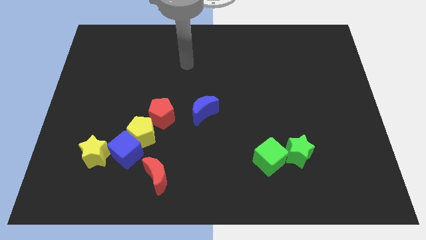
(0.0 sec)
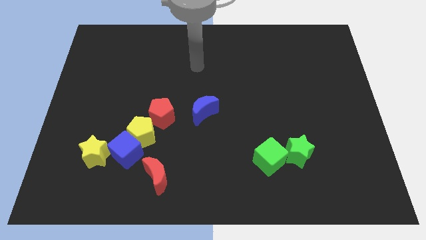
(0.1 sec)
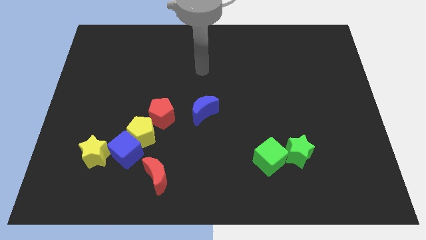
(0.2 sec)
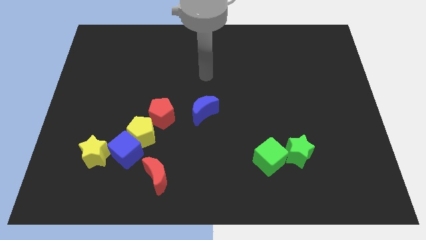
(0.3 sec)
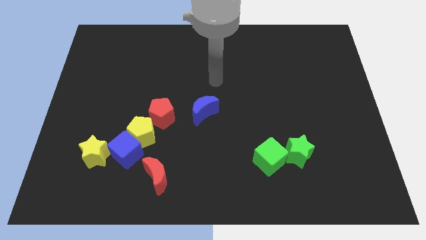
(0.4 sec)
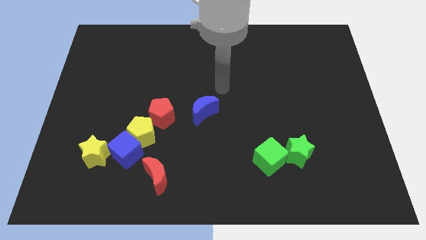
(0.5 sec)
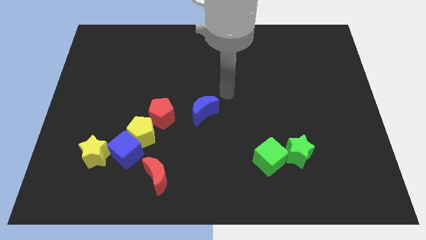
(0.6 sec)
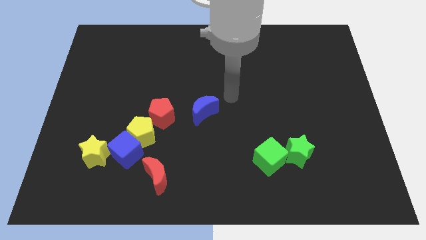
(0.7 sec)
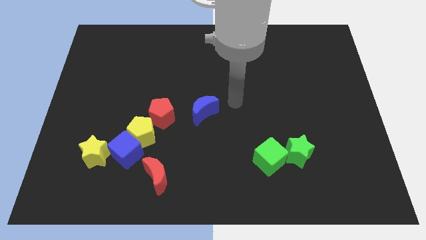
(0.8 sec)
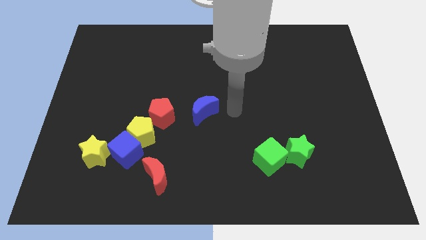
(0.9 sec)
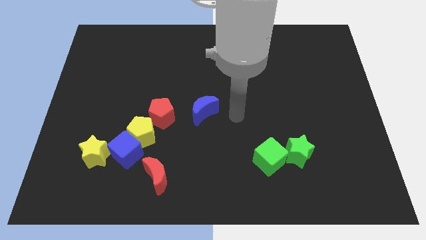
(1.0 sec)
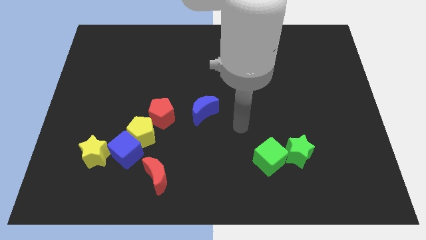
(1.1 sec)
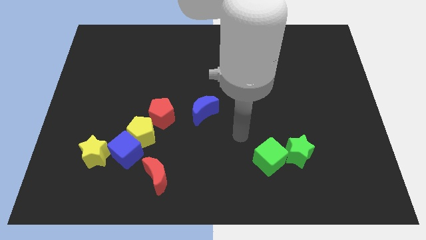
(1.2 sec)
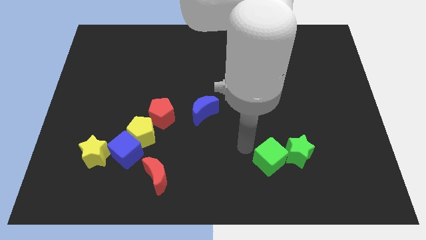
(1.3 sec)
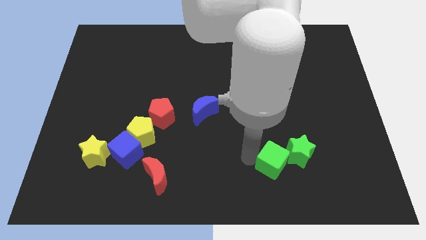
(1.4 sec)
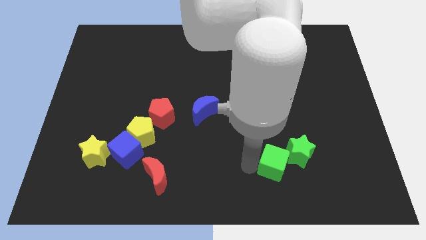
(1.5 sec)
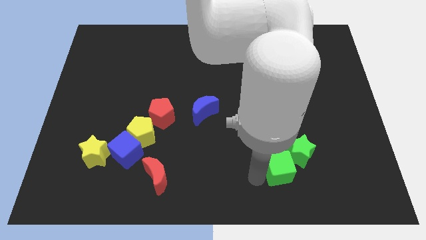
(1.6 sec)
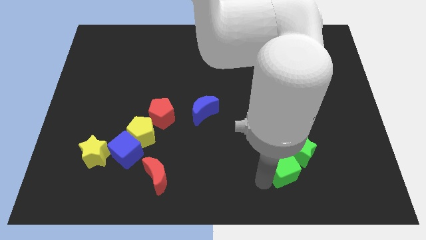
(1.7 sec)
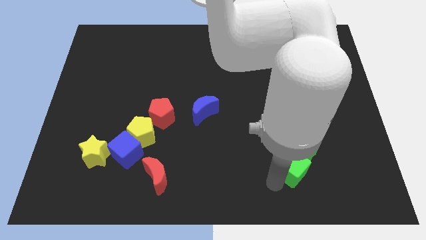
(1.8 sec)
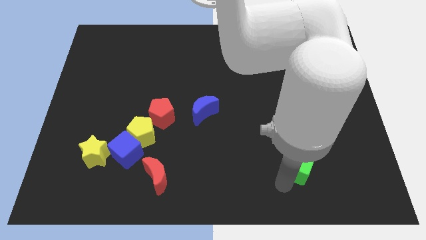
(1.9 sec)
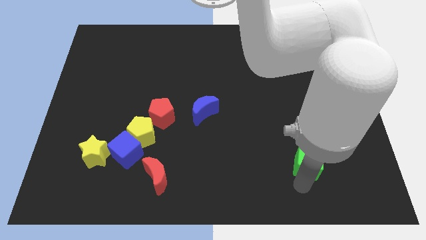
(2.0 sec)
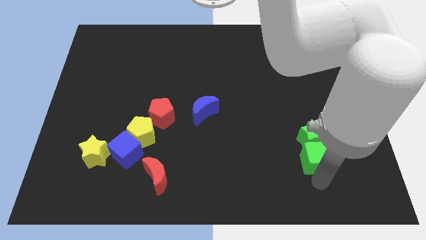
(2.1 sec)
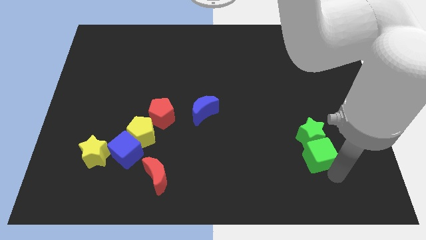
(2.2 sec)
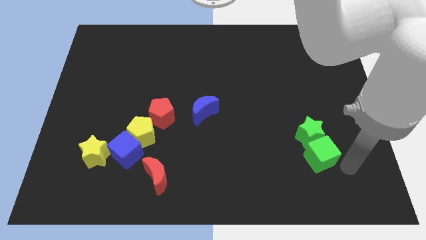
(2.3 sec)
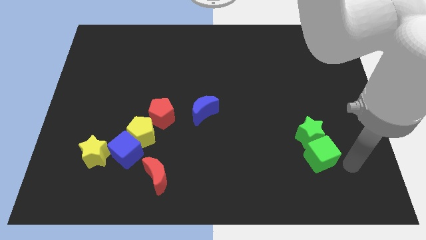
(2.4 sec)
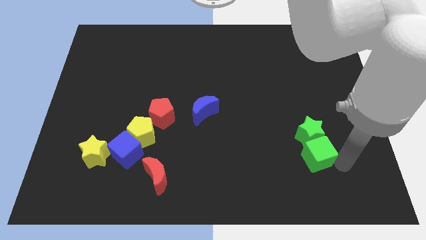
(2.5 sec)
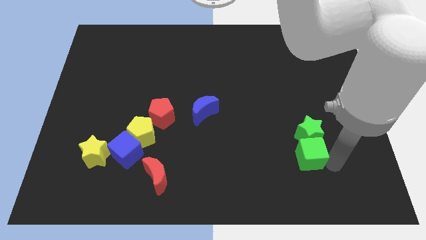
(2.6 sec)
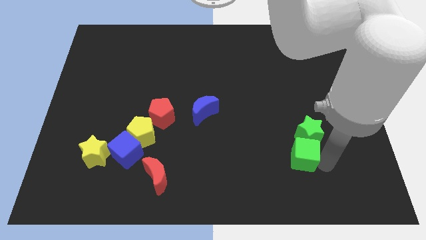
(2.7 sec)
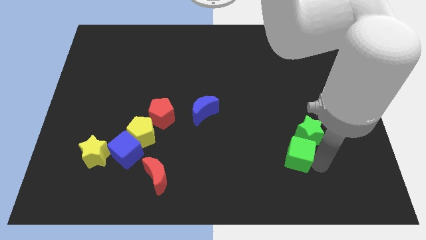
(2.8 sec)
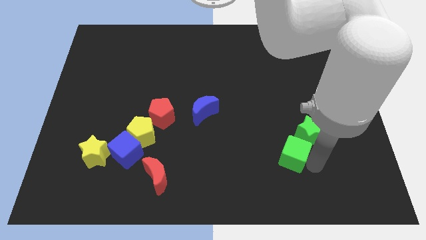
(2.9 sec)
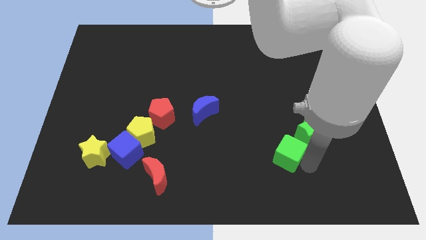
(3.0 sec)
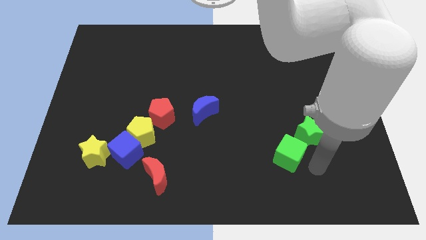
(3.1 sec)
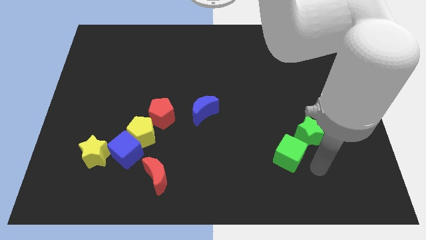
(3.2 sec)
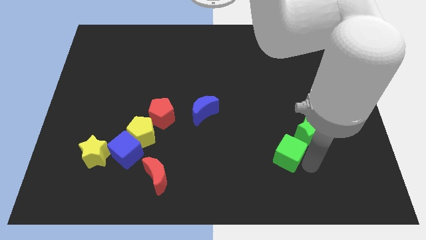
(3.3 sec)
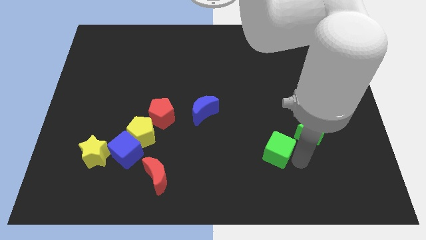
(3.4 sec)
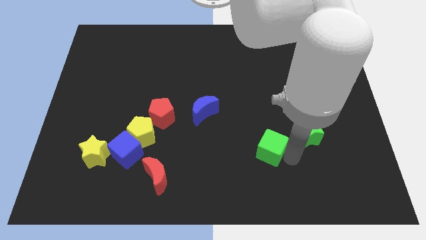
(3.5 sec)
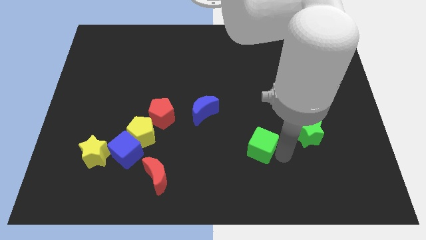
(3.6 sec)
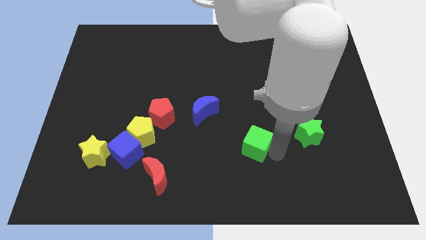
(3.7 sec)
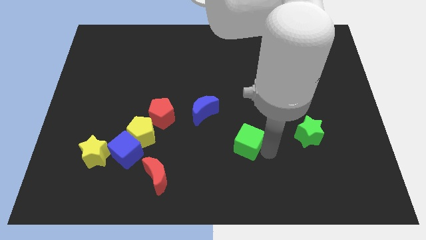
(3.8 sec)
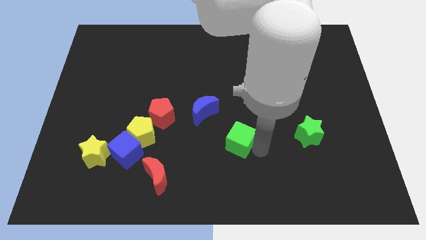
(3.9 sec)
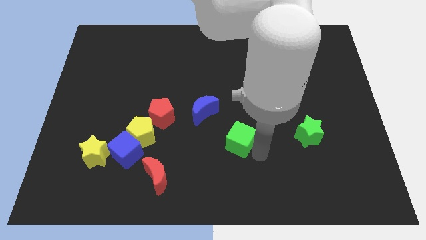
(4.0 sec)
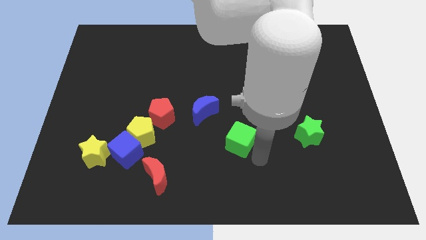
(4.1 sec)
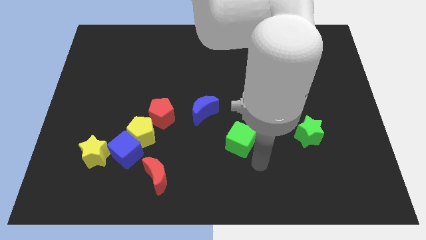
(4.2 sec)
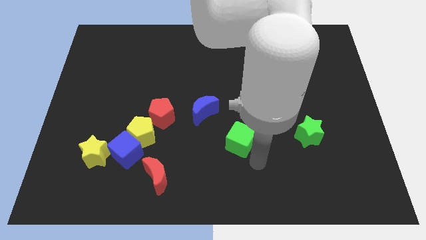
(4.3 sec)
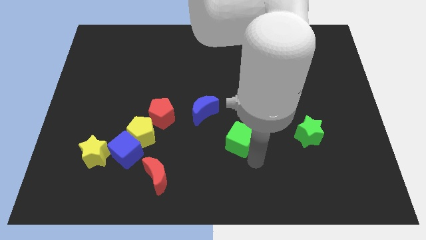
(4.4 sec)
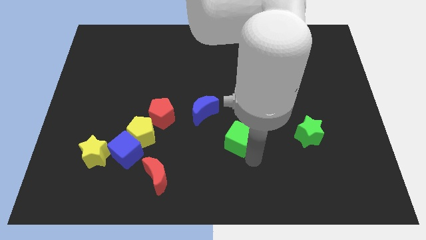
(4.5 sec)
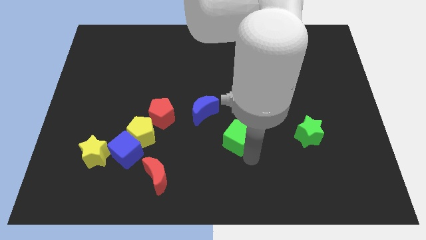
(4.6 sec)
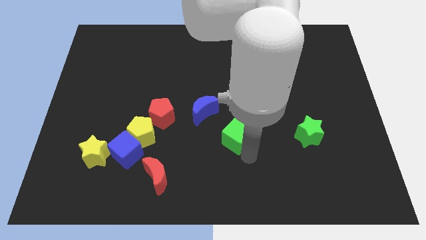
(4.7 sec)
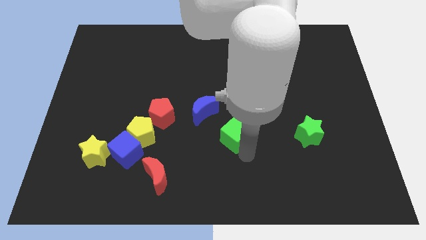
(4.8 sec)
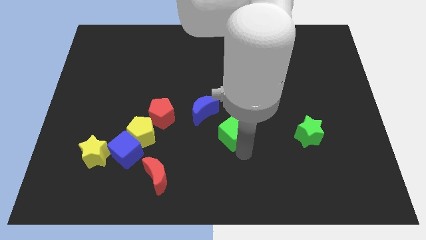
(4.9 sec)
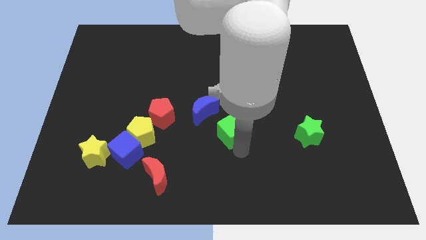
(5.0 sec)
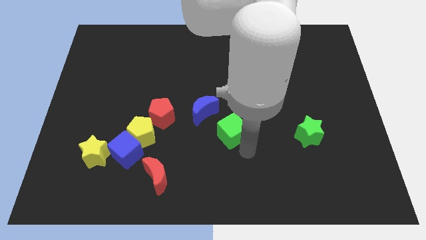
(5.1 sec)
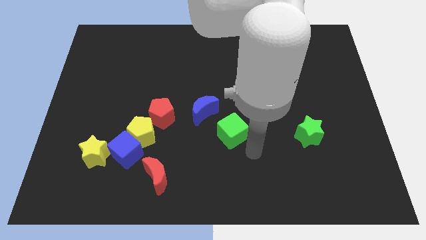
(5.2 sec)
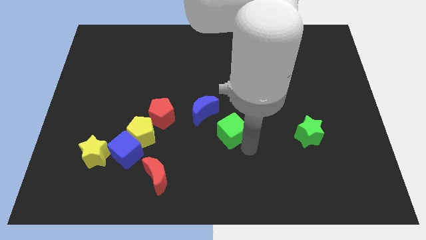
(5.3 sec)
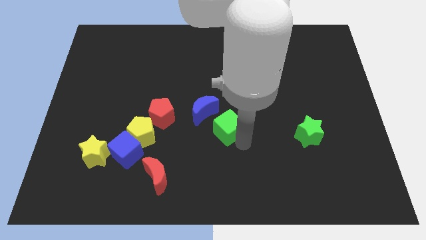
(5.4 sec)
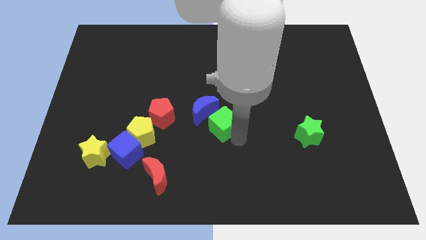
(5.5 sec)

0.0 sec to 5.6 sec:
slide the green cube next to the blue moon

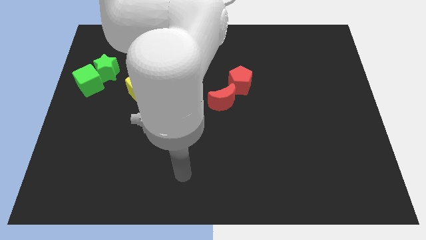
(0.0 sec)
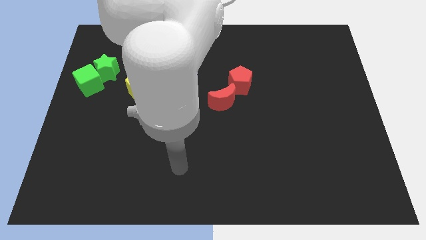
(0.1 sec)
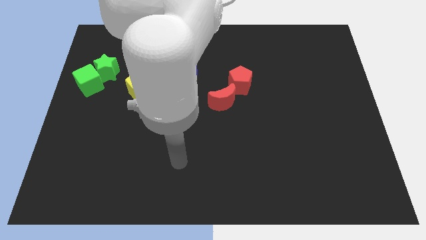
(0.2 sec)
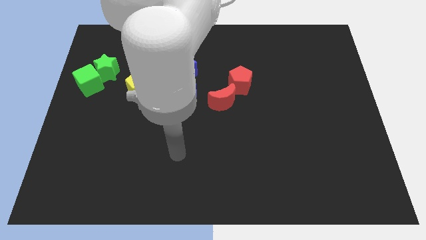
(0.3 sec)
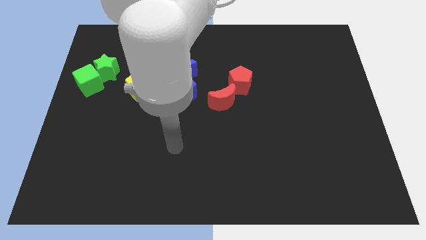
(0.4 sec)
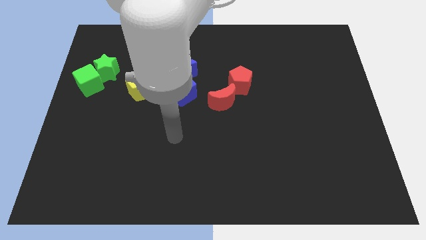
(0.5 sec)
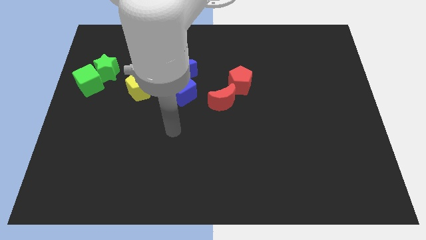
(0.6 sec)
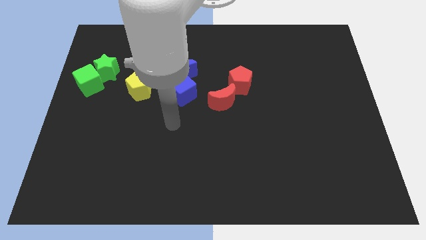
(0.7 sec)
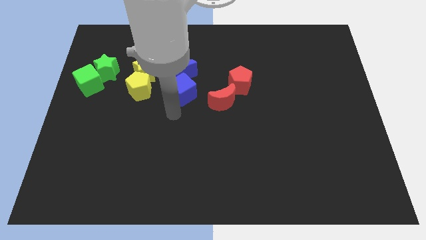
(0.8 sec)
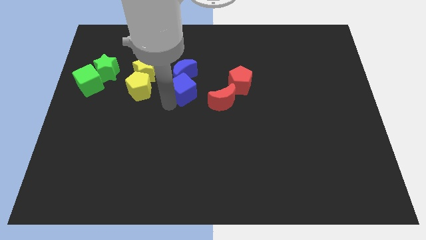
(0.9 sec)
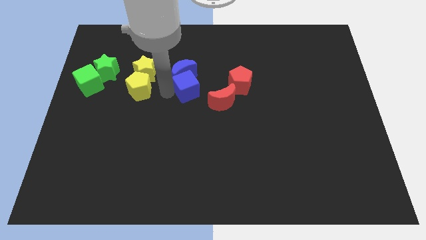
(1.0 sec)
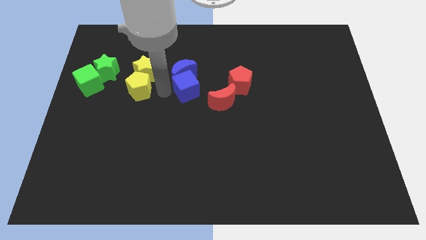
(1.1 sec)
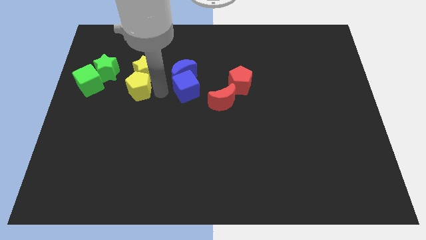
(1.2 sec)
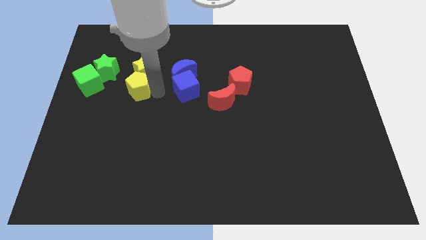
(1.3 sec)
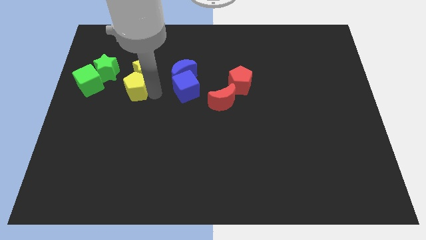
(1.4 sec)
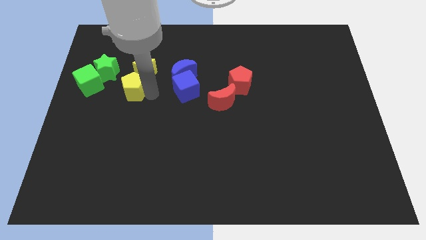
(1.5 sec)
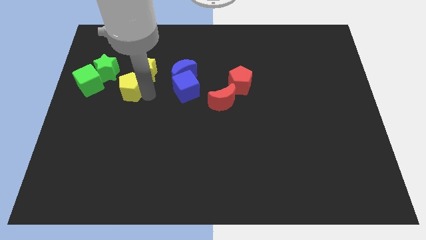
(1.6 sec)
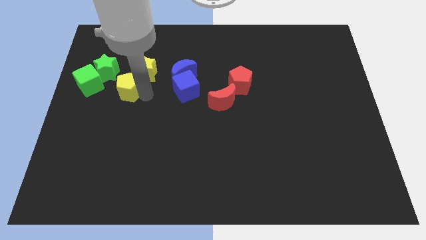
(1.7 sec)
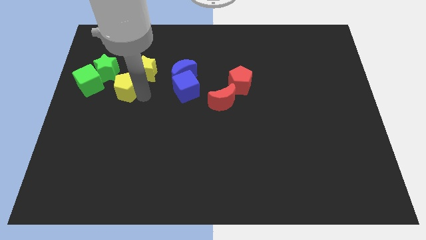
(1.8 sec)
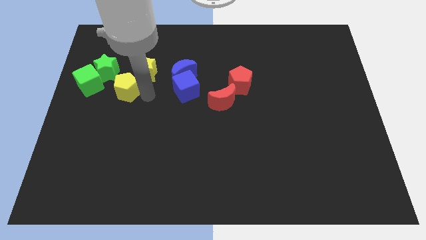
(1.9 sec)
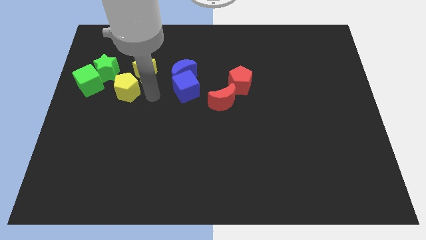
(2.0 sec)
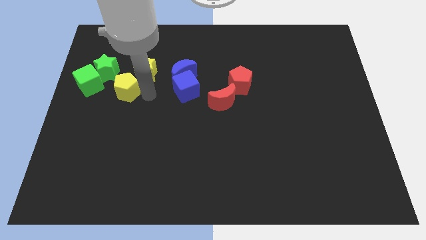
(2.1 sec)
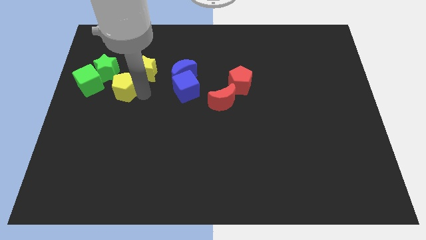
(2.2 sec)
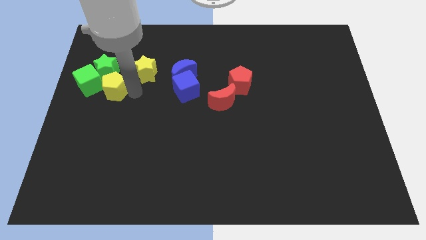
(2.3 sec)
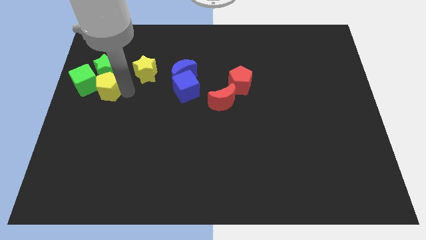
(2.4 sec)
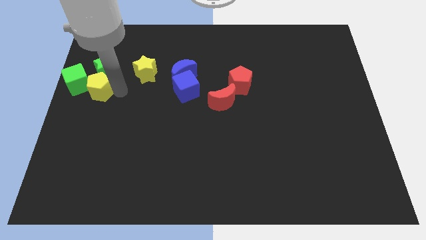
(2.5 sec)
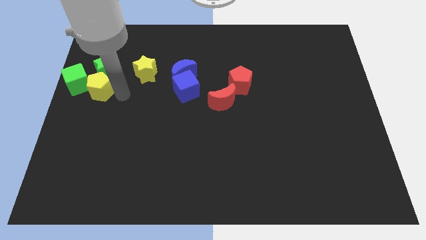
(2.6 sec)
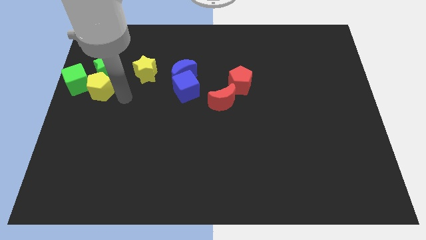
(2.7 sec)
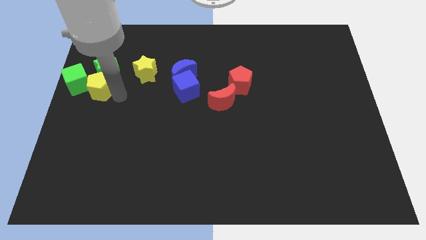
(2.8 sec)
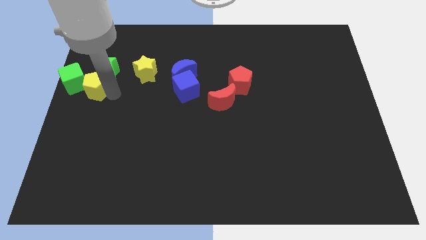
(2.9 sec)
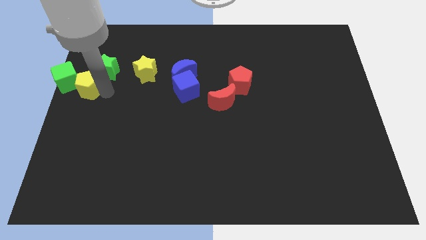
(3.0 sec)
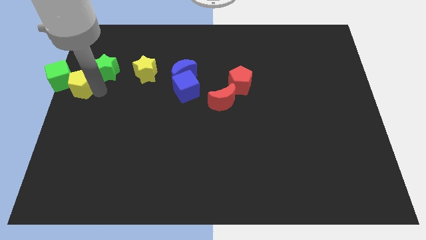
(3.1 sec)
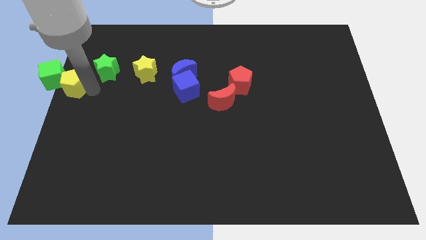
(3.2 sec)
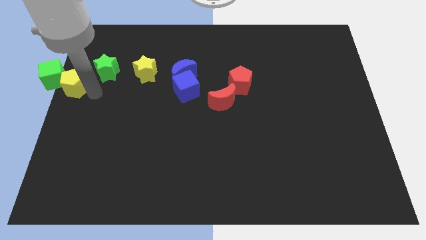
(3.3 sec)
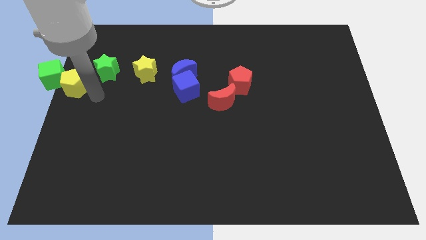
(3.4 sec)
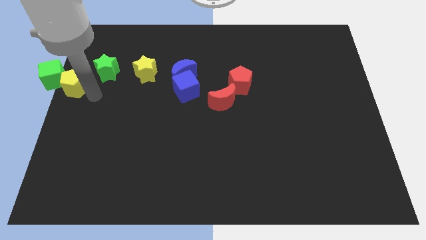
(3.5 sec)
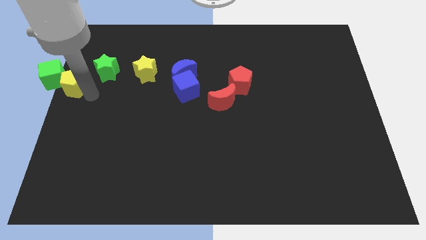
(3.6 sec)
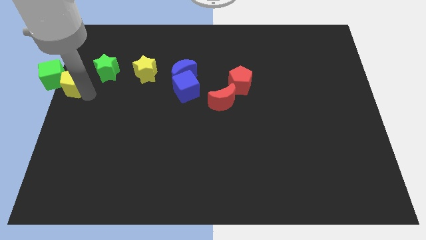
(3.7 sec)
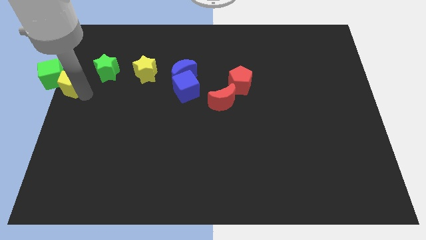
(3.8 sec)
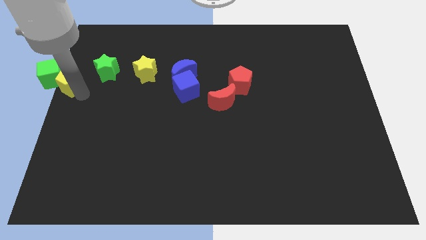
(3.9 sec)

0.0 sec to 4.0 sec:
slide the yellow pentagon towards the green cube
